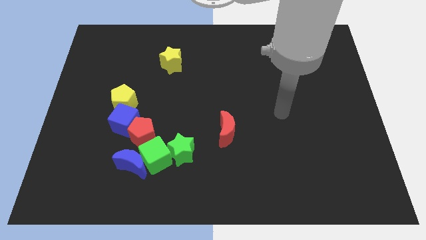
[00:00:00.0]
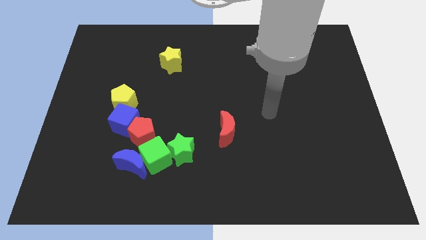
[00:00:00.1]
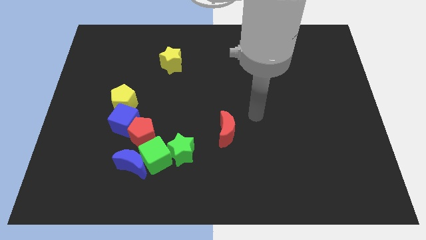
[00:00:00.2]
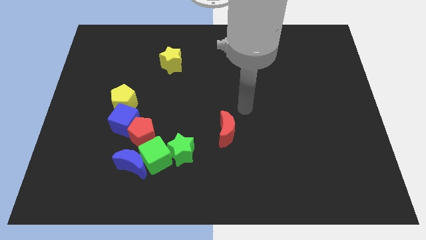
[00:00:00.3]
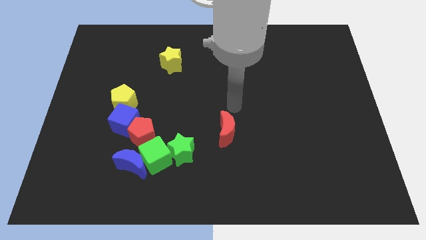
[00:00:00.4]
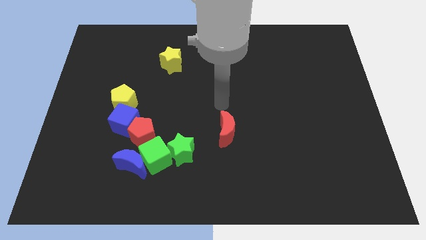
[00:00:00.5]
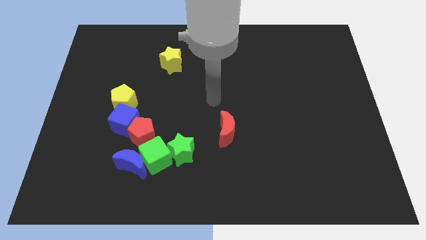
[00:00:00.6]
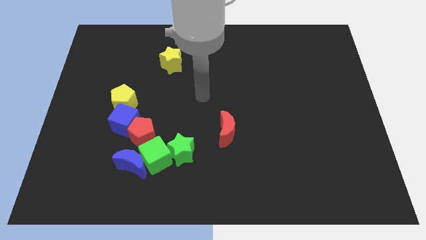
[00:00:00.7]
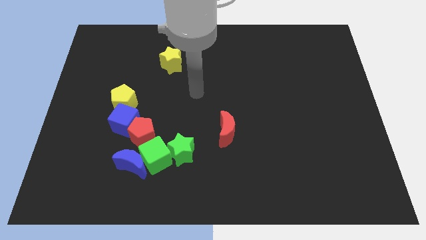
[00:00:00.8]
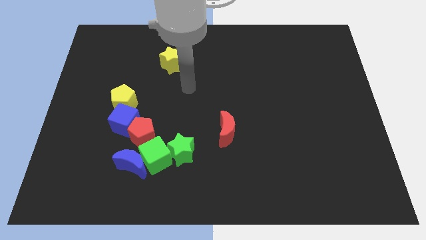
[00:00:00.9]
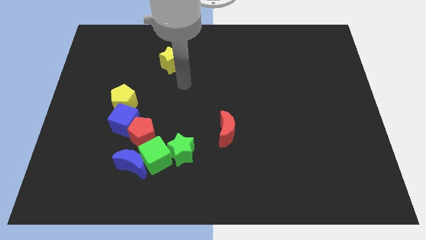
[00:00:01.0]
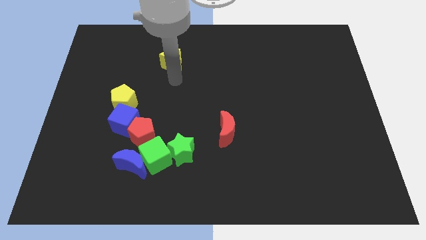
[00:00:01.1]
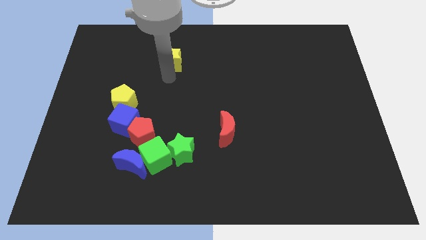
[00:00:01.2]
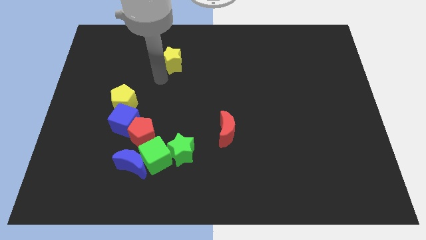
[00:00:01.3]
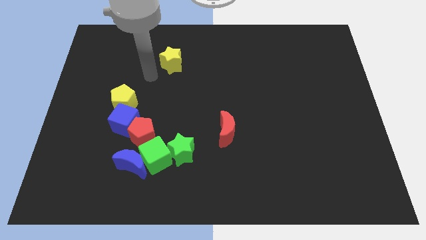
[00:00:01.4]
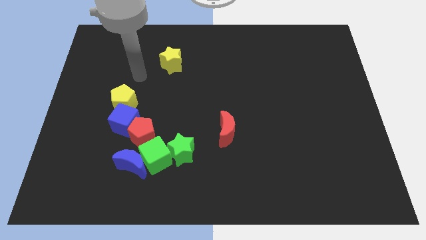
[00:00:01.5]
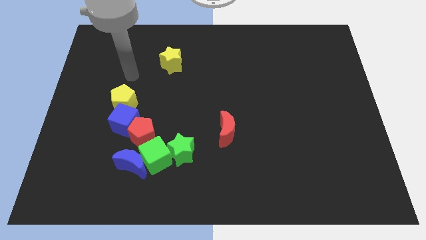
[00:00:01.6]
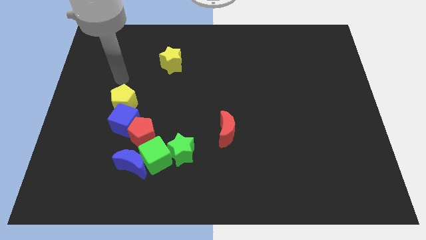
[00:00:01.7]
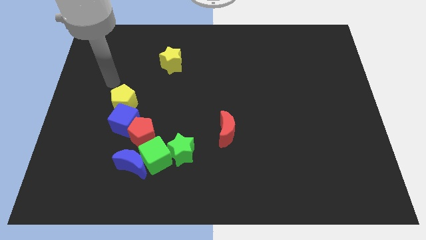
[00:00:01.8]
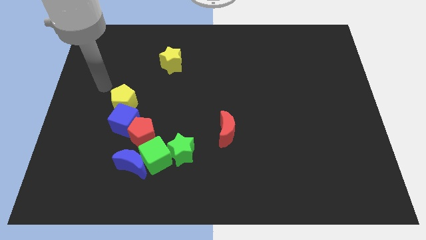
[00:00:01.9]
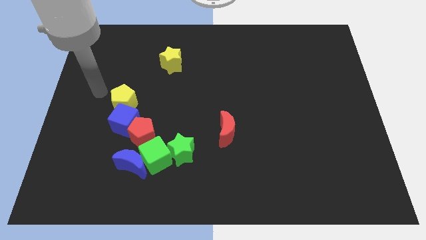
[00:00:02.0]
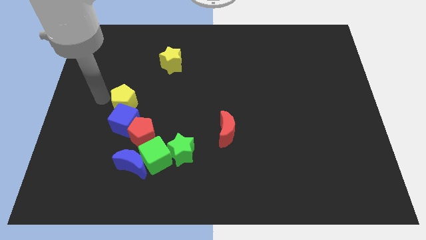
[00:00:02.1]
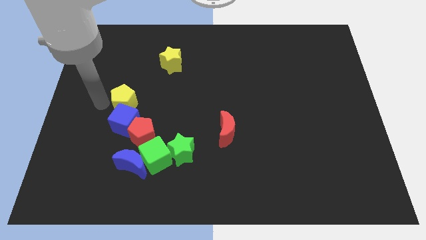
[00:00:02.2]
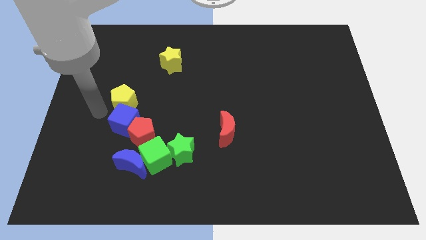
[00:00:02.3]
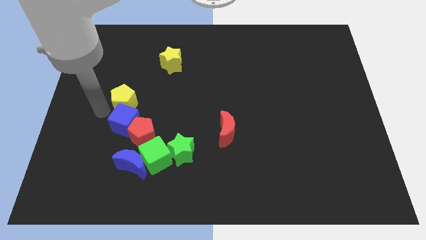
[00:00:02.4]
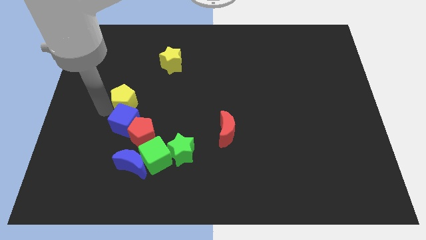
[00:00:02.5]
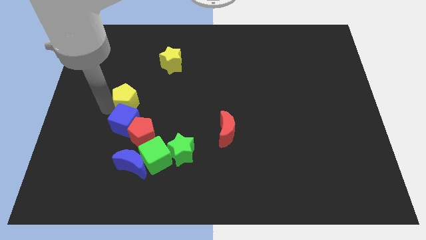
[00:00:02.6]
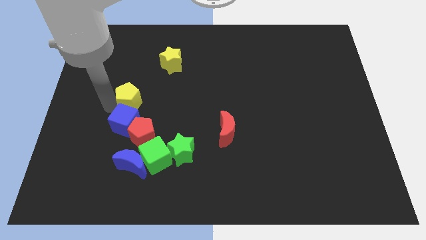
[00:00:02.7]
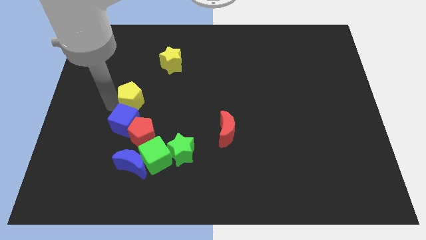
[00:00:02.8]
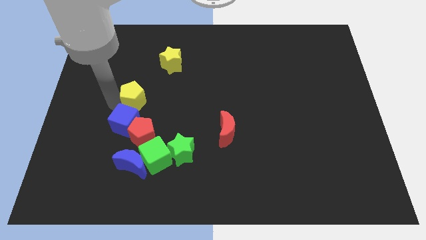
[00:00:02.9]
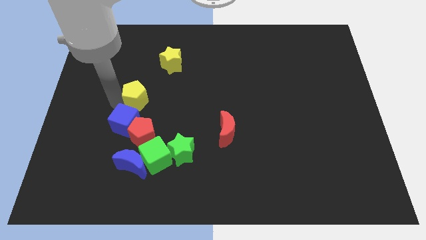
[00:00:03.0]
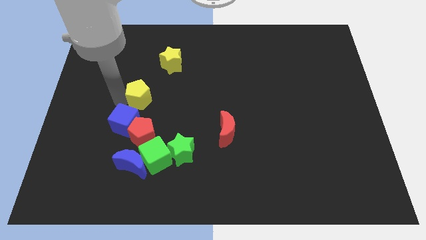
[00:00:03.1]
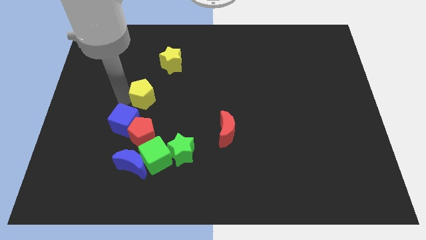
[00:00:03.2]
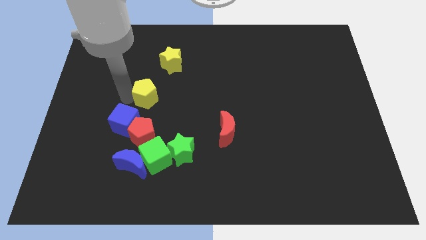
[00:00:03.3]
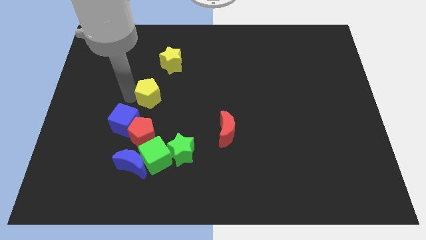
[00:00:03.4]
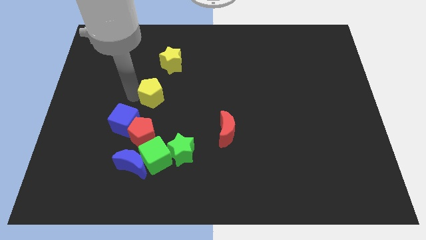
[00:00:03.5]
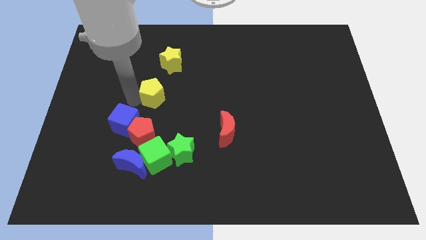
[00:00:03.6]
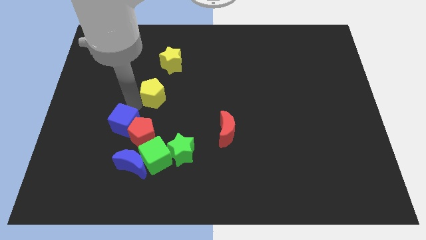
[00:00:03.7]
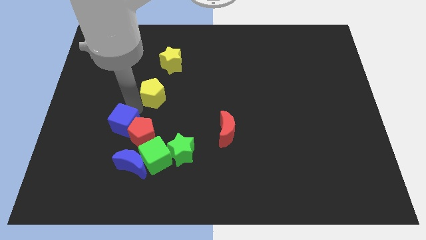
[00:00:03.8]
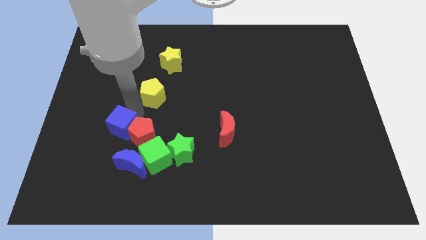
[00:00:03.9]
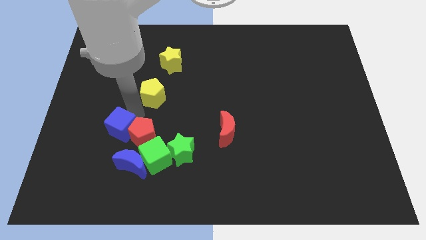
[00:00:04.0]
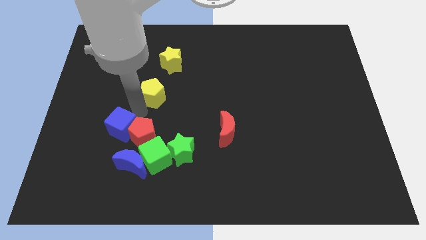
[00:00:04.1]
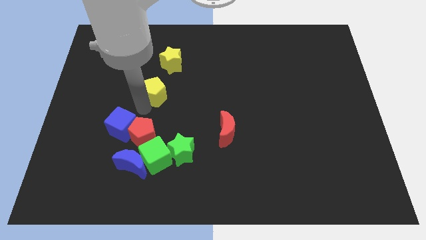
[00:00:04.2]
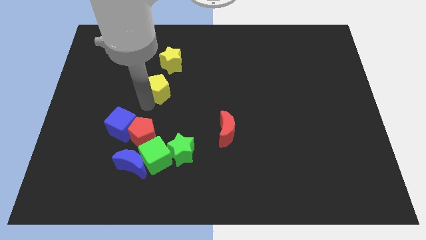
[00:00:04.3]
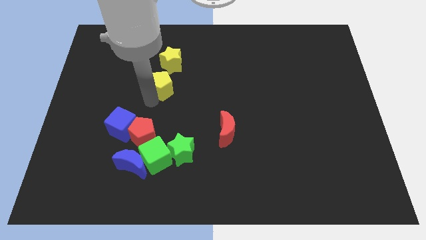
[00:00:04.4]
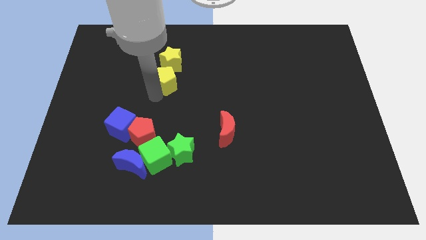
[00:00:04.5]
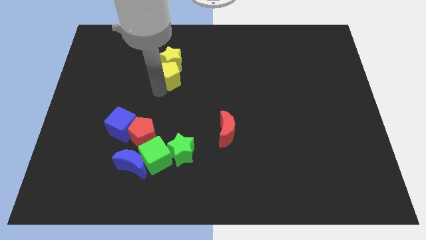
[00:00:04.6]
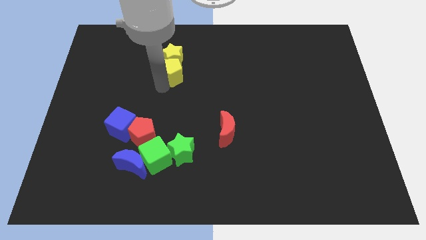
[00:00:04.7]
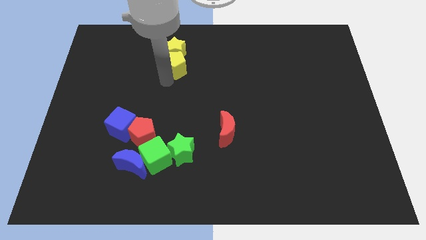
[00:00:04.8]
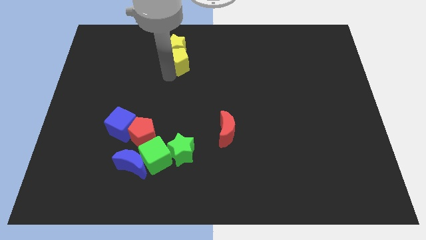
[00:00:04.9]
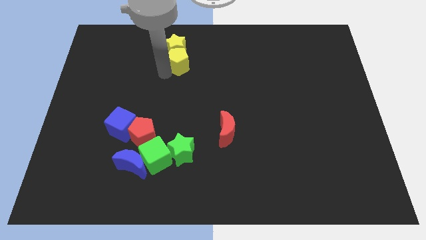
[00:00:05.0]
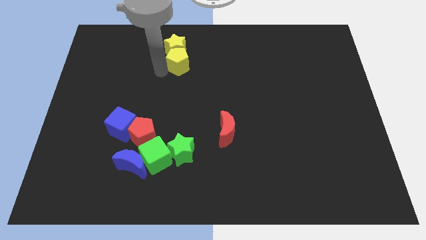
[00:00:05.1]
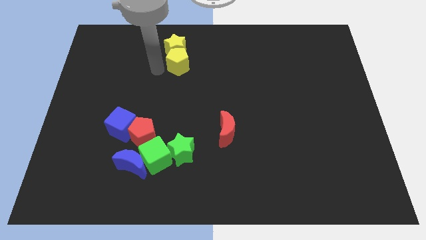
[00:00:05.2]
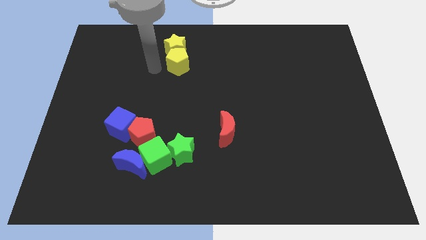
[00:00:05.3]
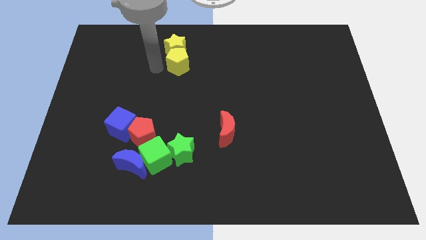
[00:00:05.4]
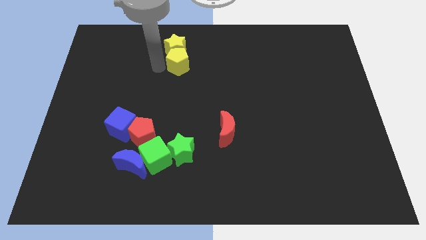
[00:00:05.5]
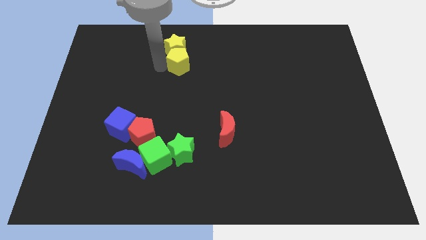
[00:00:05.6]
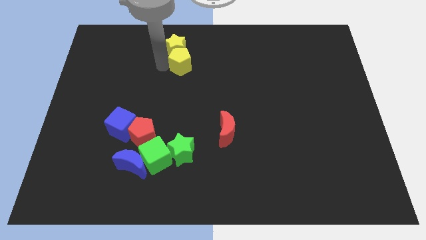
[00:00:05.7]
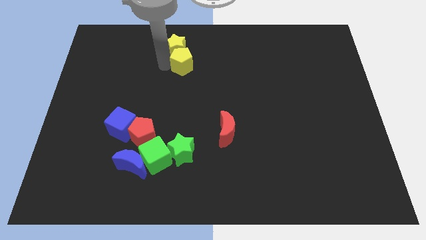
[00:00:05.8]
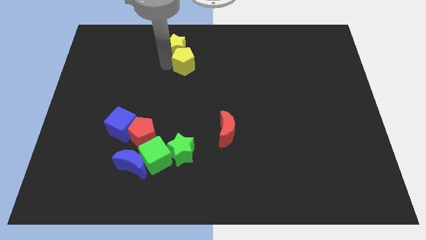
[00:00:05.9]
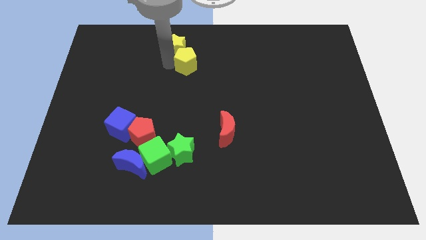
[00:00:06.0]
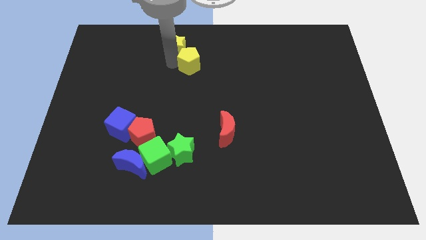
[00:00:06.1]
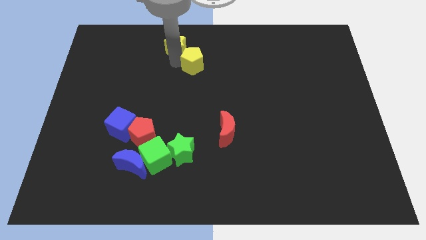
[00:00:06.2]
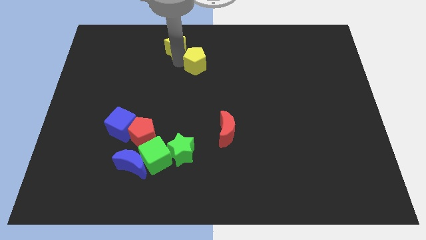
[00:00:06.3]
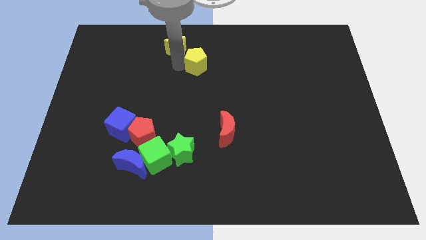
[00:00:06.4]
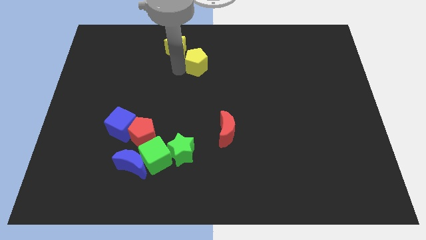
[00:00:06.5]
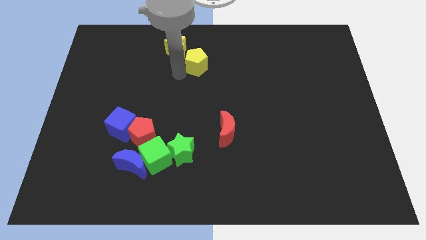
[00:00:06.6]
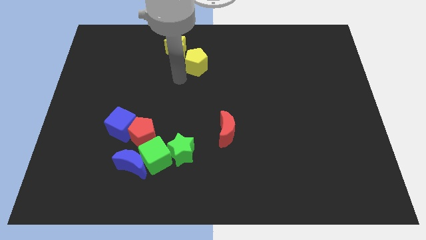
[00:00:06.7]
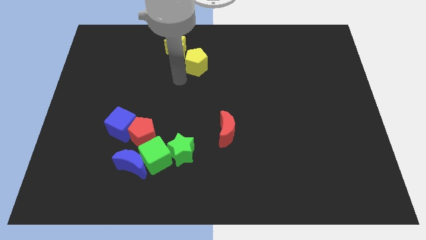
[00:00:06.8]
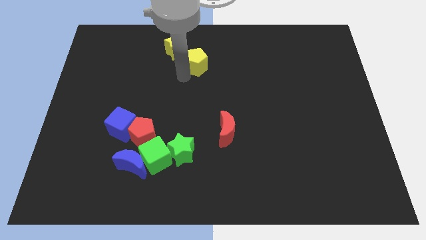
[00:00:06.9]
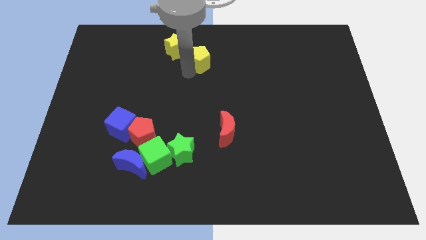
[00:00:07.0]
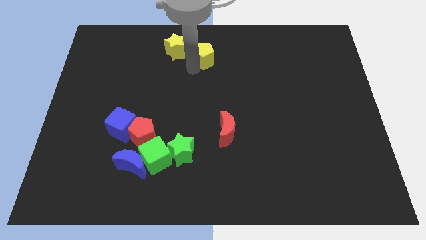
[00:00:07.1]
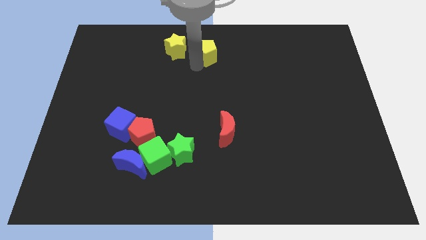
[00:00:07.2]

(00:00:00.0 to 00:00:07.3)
push the yellow pentagon to the towards your base

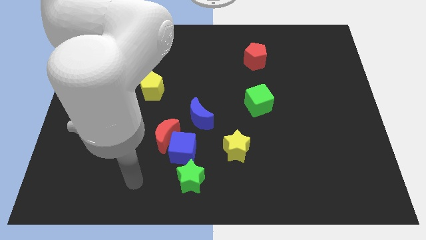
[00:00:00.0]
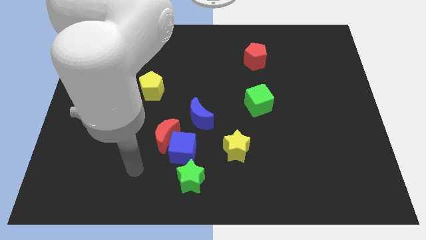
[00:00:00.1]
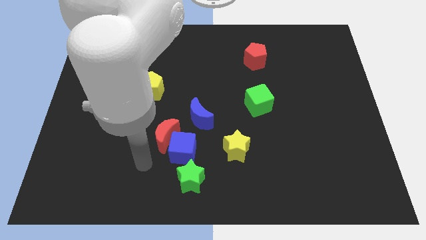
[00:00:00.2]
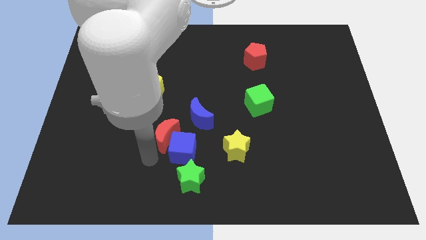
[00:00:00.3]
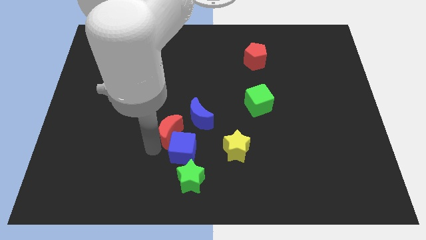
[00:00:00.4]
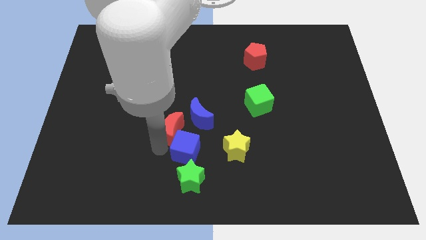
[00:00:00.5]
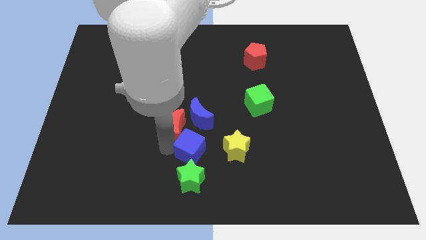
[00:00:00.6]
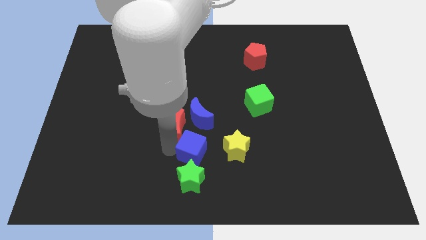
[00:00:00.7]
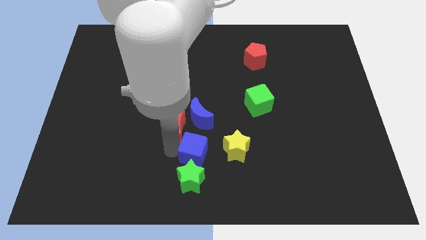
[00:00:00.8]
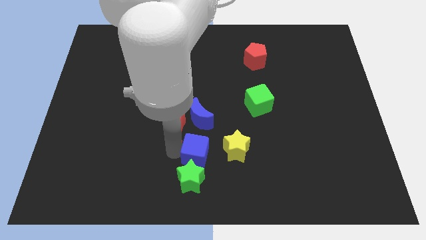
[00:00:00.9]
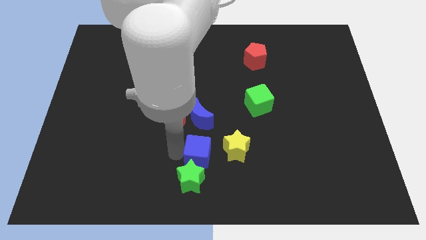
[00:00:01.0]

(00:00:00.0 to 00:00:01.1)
put the blue cube to the bottom
